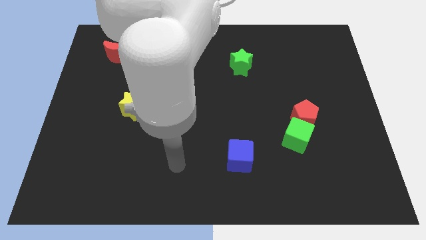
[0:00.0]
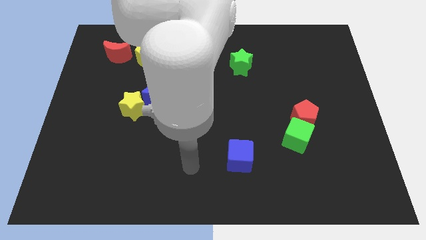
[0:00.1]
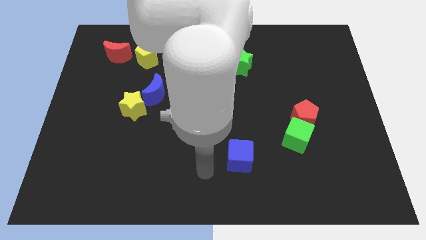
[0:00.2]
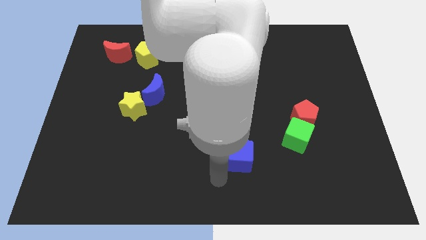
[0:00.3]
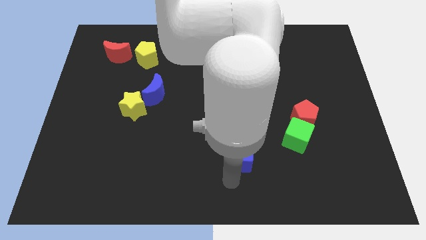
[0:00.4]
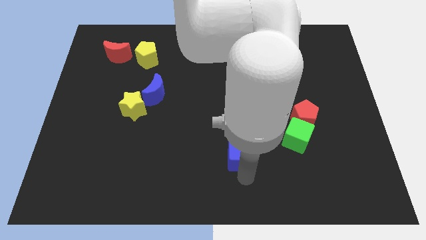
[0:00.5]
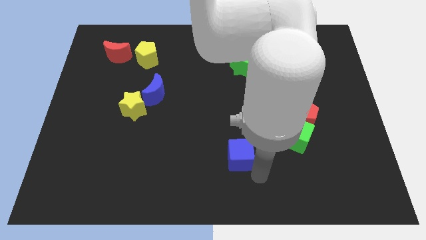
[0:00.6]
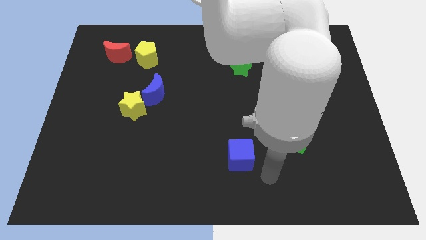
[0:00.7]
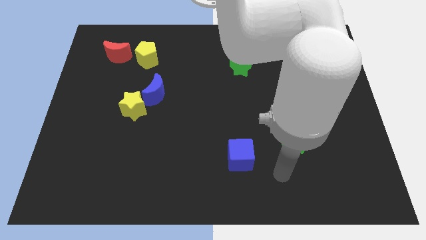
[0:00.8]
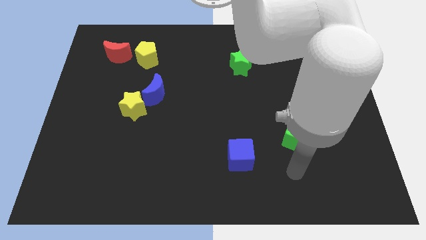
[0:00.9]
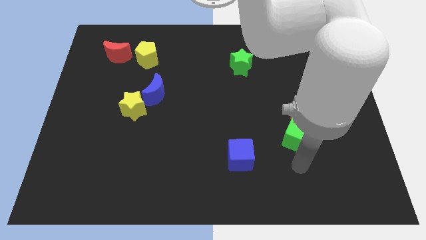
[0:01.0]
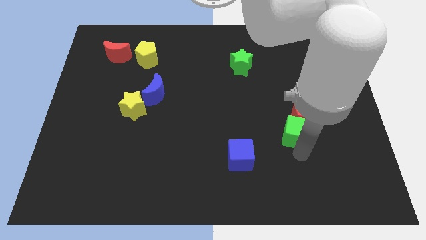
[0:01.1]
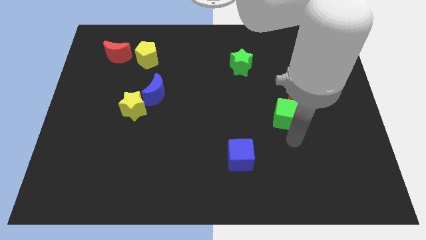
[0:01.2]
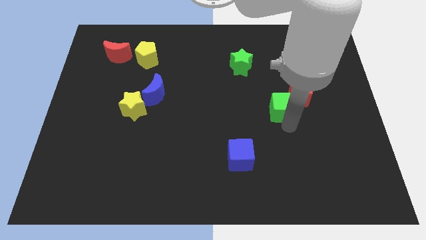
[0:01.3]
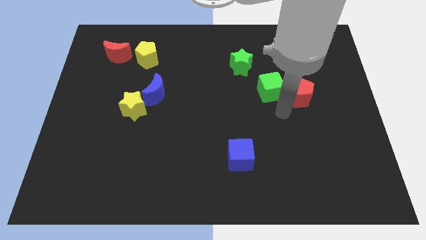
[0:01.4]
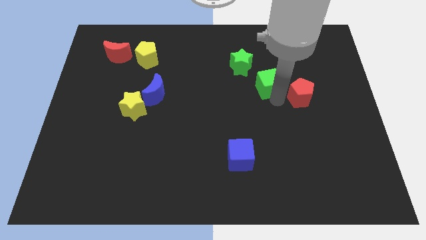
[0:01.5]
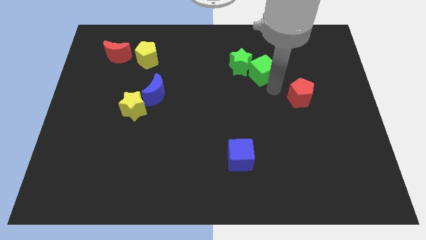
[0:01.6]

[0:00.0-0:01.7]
pull the red pentagon apart from the green cube

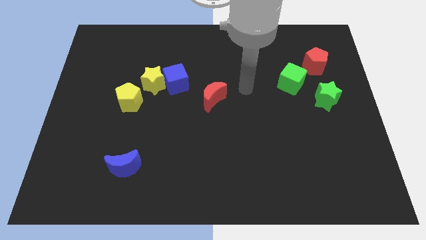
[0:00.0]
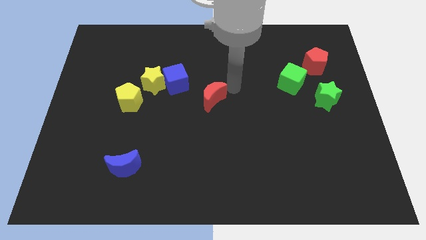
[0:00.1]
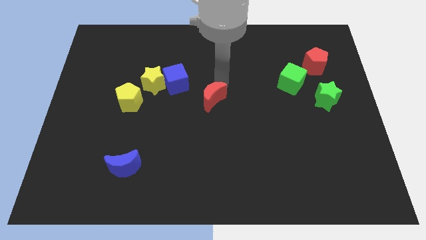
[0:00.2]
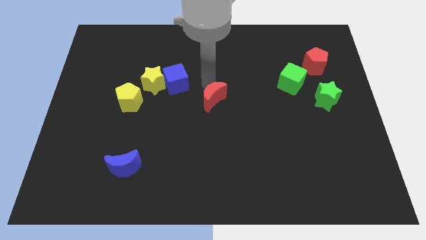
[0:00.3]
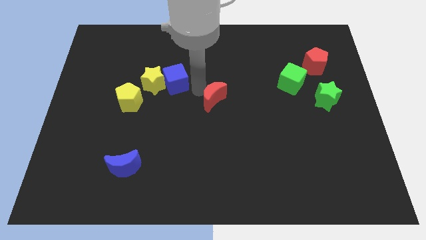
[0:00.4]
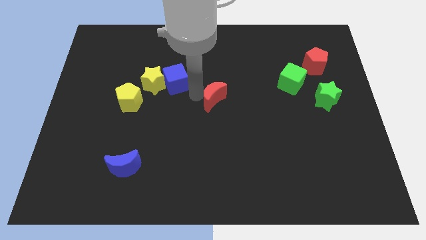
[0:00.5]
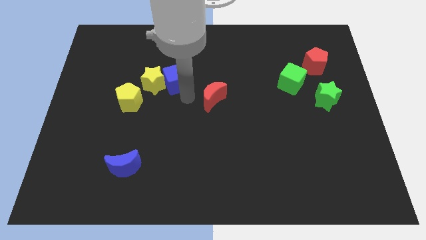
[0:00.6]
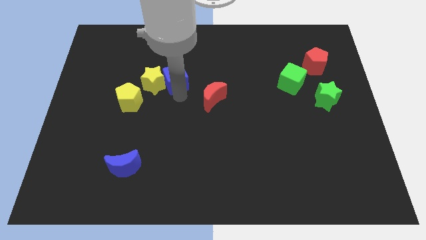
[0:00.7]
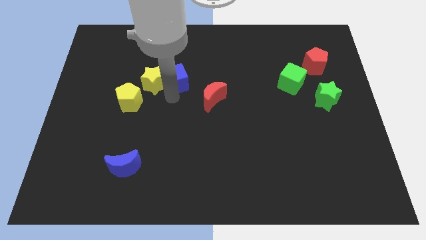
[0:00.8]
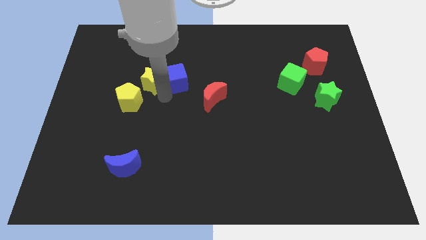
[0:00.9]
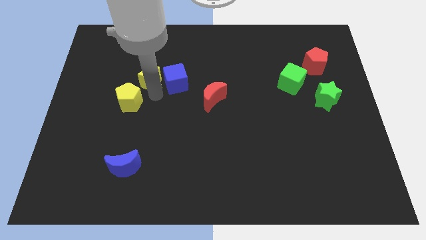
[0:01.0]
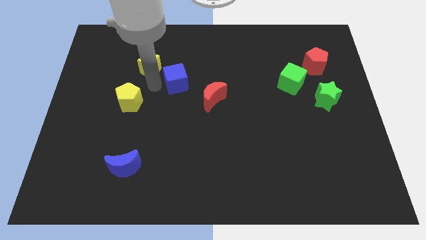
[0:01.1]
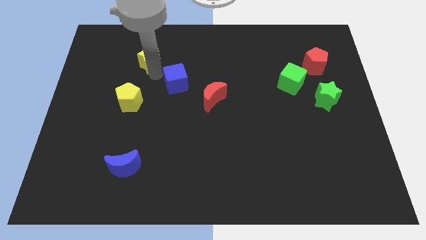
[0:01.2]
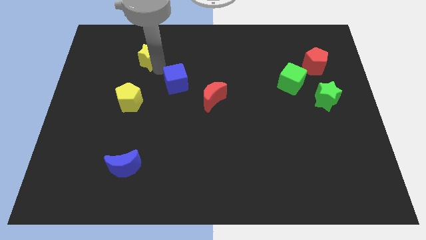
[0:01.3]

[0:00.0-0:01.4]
separate the blue cube from the yellow star

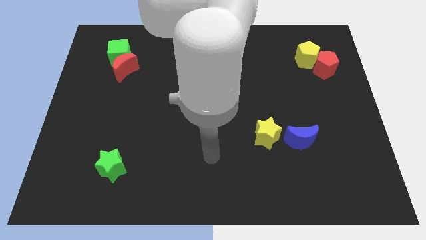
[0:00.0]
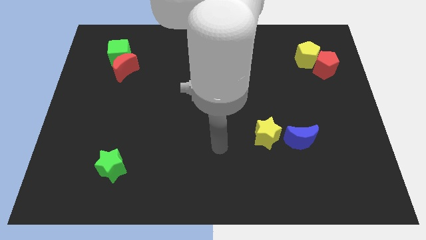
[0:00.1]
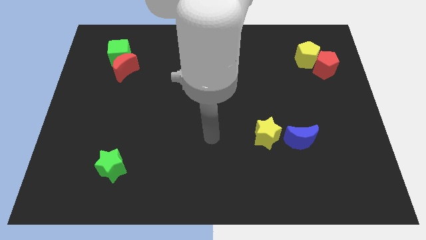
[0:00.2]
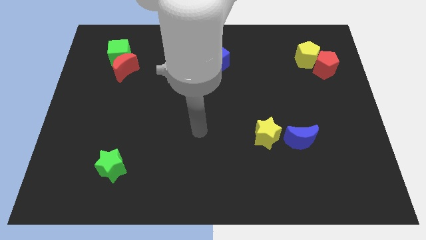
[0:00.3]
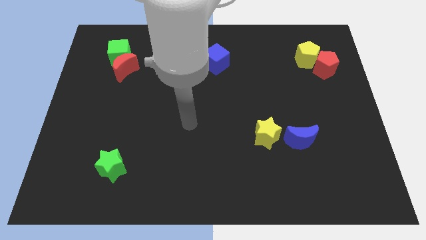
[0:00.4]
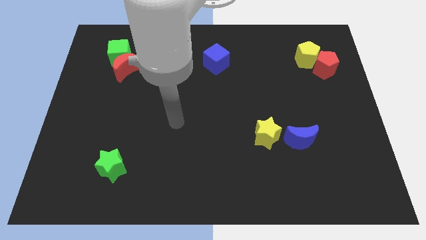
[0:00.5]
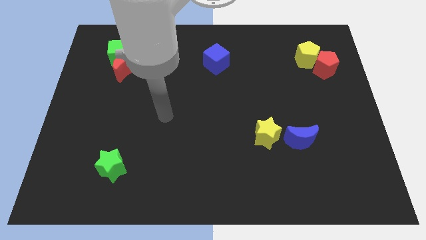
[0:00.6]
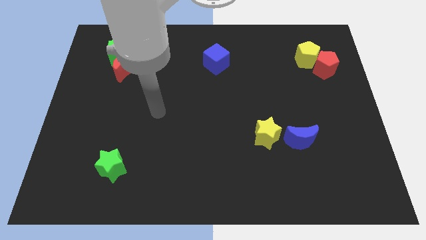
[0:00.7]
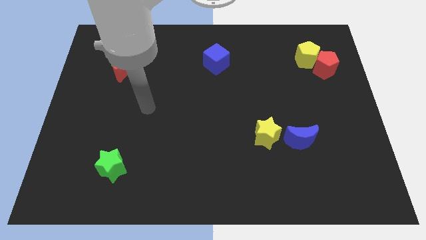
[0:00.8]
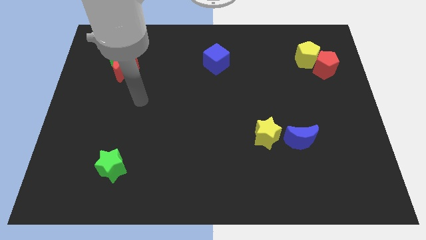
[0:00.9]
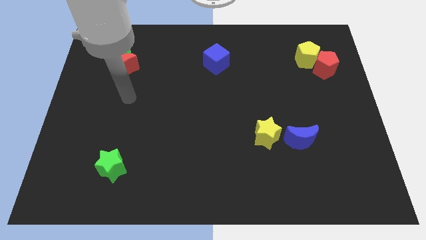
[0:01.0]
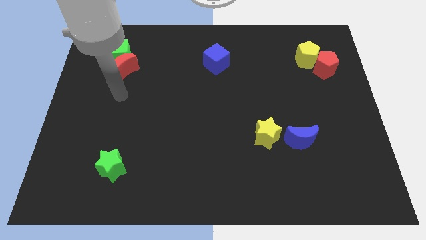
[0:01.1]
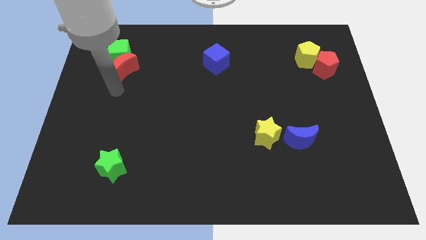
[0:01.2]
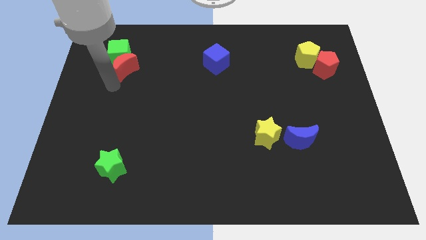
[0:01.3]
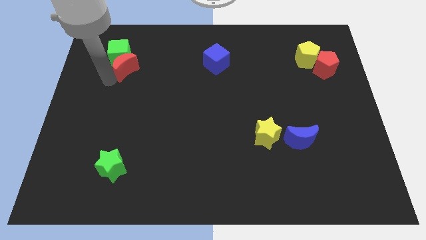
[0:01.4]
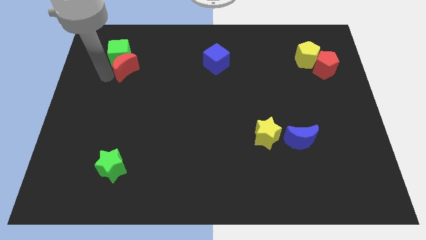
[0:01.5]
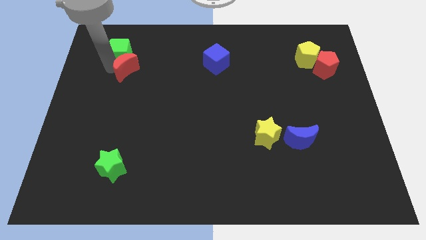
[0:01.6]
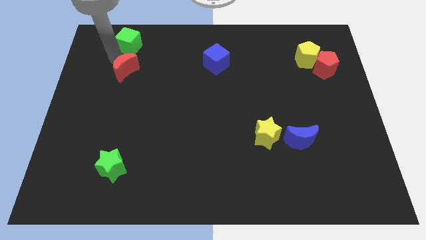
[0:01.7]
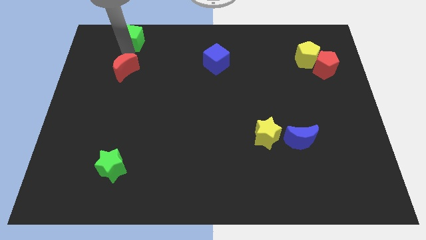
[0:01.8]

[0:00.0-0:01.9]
separate the red moon from the green cube

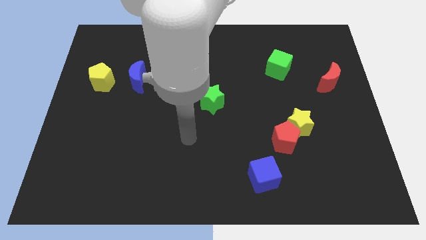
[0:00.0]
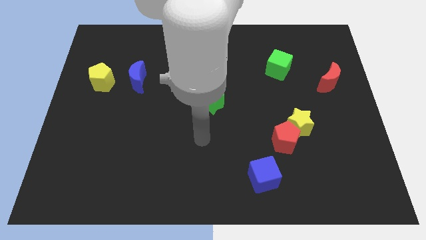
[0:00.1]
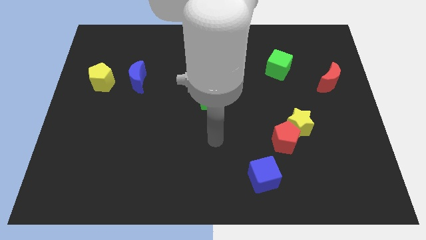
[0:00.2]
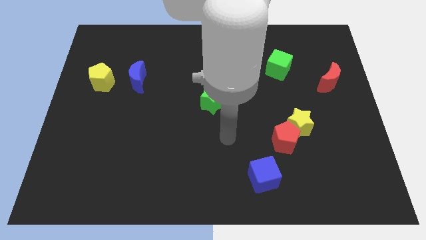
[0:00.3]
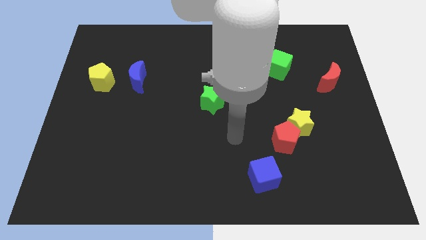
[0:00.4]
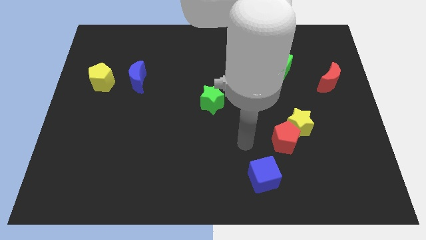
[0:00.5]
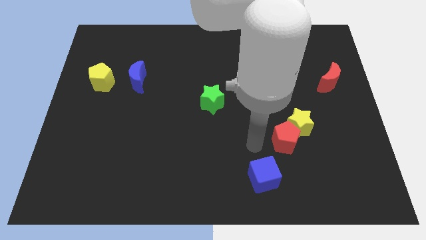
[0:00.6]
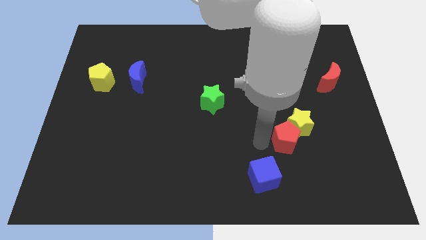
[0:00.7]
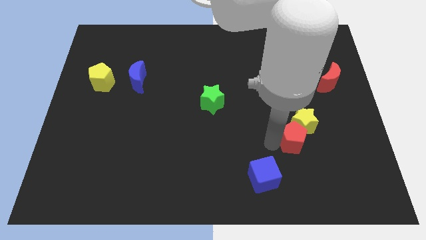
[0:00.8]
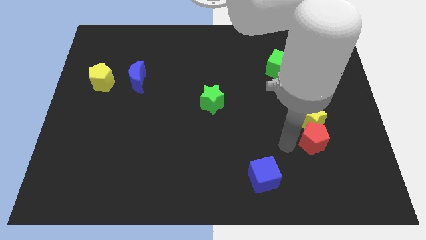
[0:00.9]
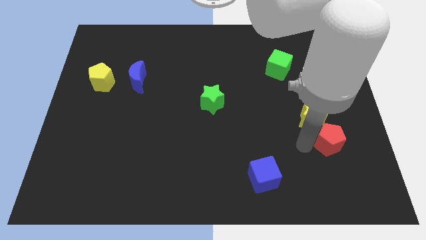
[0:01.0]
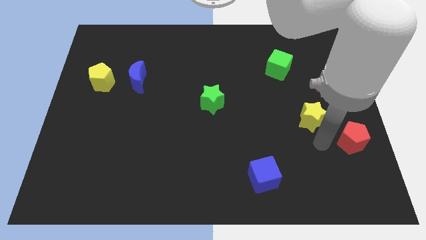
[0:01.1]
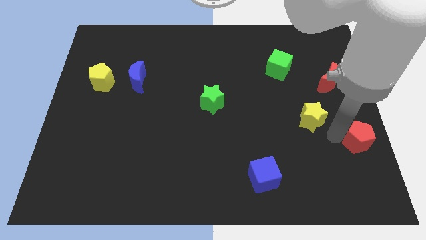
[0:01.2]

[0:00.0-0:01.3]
move the yellow star away from the red pentagon

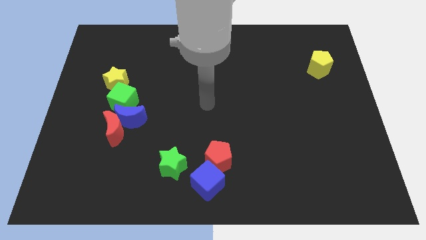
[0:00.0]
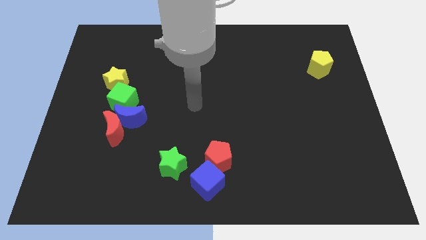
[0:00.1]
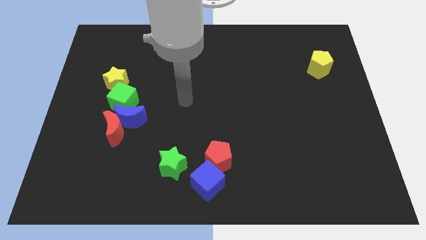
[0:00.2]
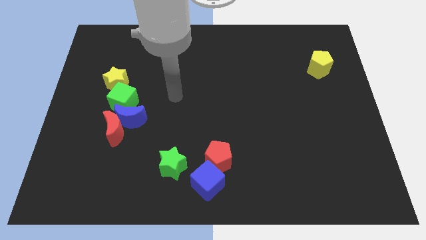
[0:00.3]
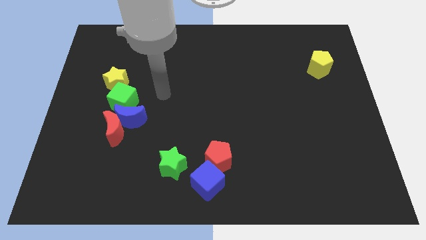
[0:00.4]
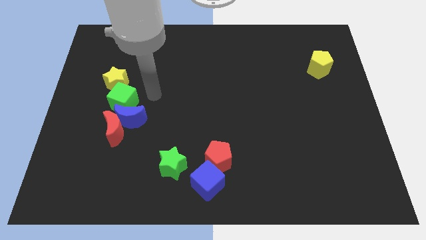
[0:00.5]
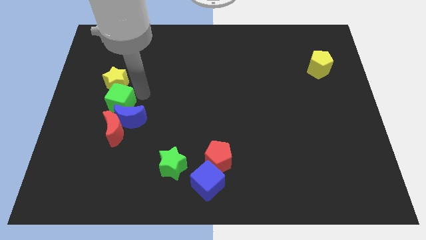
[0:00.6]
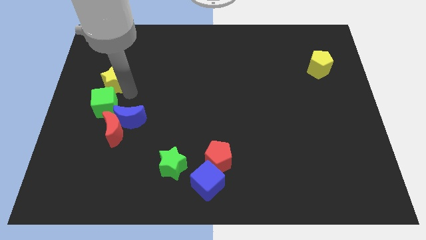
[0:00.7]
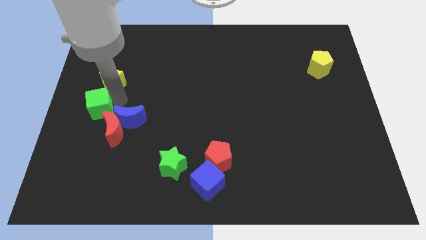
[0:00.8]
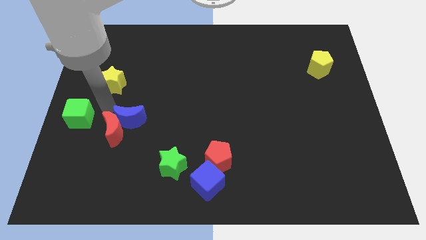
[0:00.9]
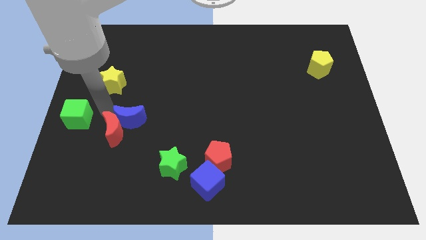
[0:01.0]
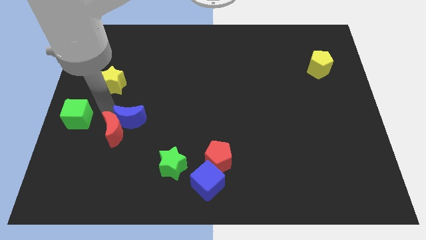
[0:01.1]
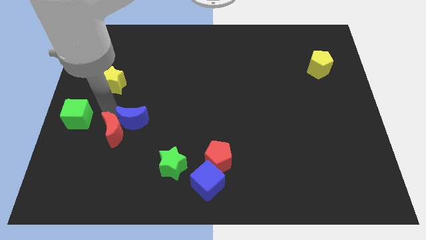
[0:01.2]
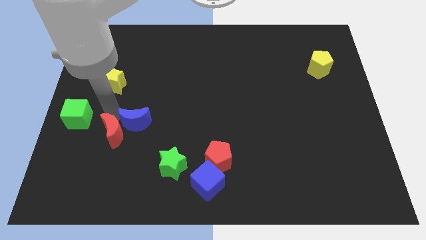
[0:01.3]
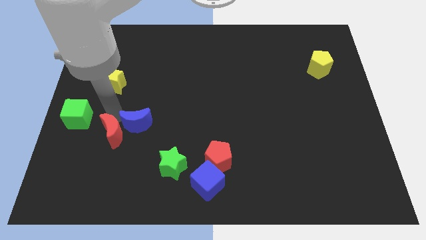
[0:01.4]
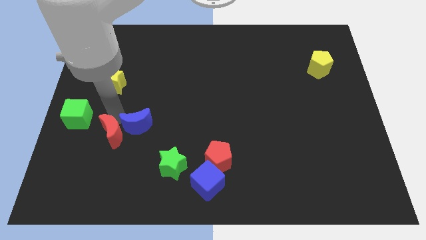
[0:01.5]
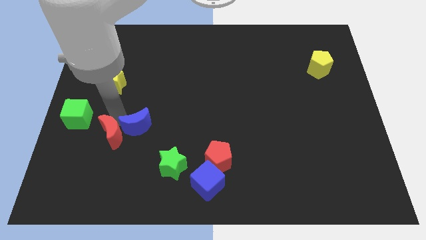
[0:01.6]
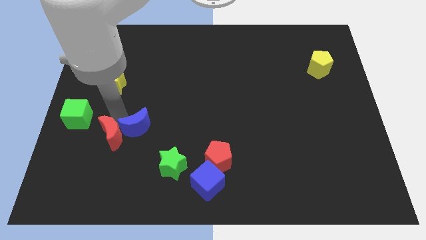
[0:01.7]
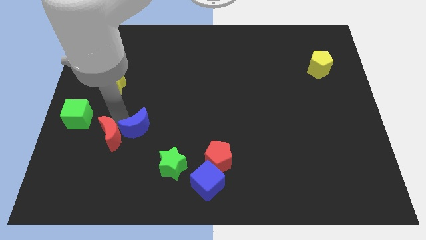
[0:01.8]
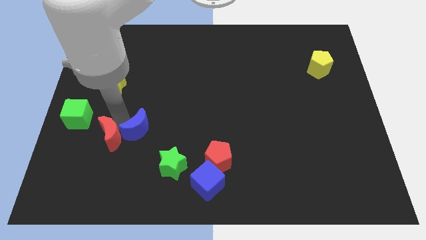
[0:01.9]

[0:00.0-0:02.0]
pull the blue moon apart from the red moon and green cube

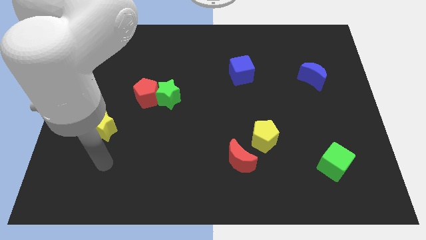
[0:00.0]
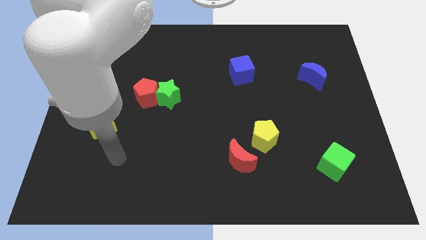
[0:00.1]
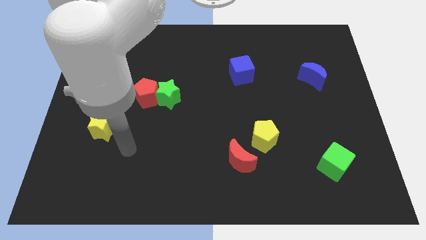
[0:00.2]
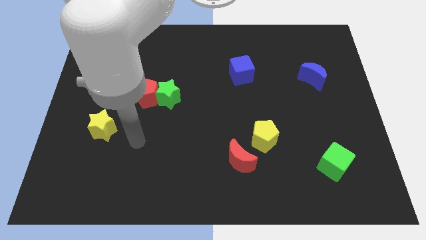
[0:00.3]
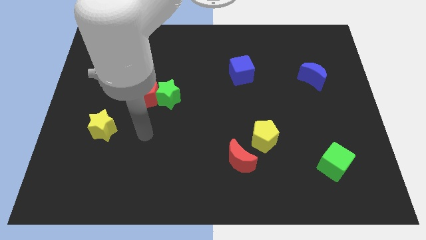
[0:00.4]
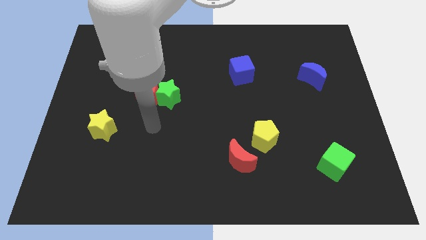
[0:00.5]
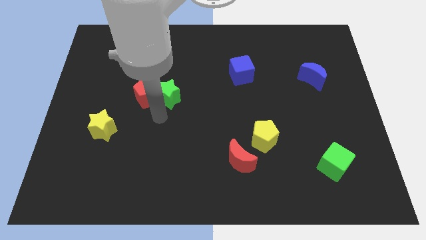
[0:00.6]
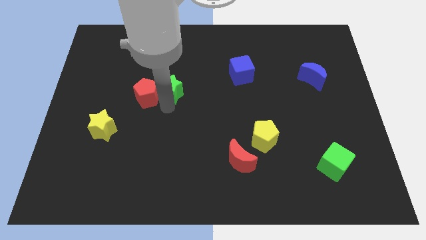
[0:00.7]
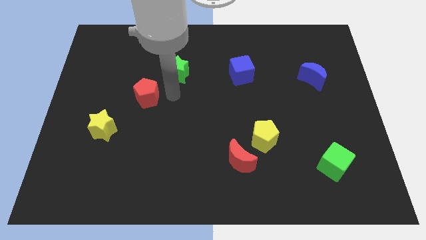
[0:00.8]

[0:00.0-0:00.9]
separate the red pentagon from the green star
